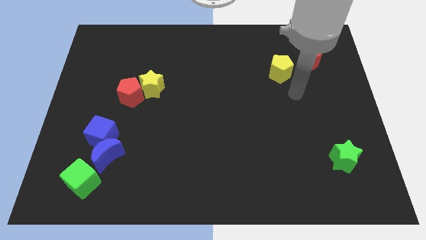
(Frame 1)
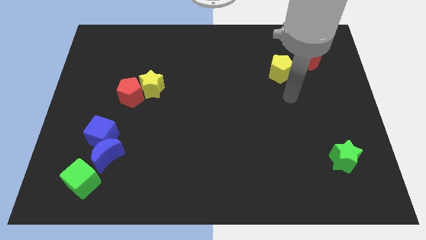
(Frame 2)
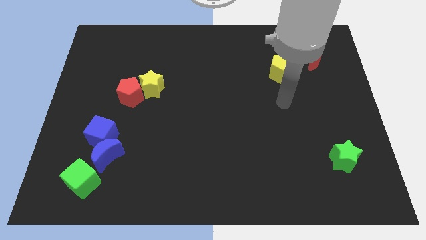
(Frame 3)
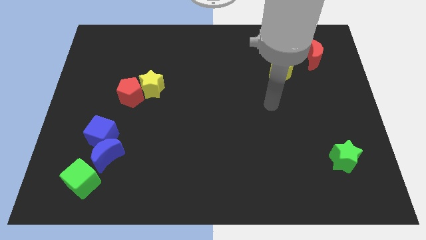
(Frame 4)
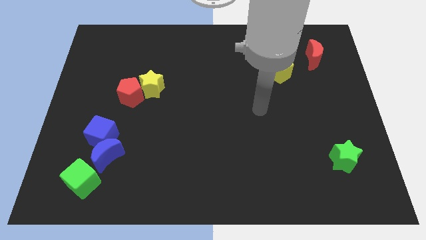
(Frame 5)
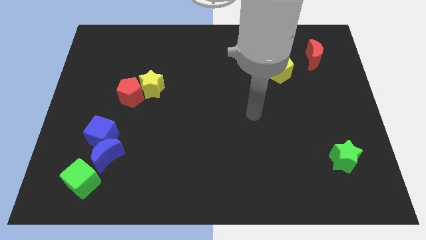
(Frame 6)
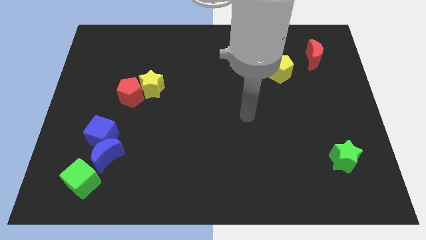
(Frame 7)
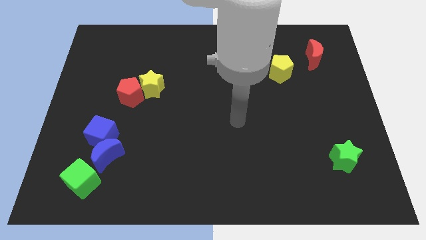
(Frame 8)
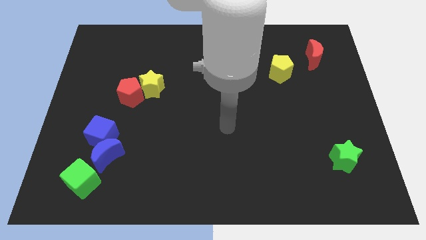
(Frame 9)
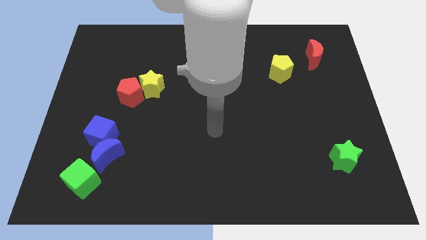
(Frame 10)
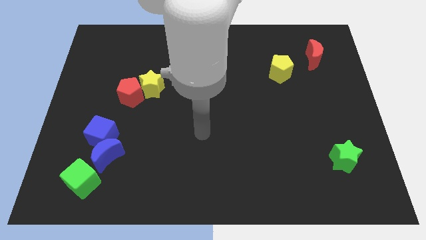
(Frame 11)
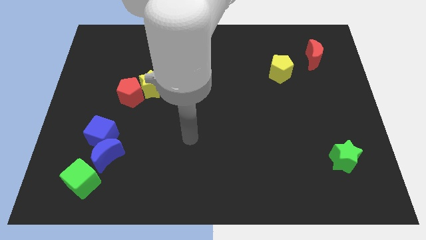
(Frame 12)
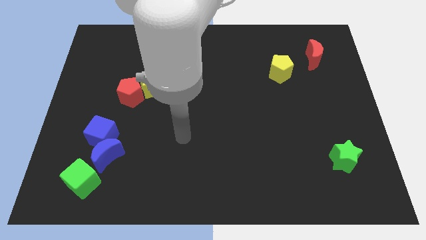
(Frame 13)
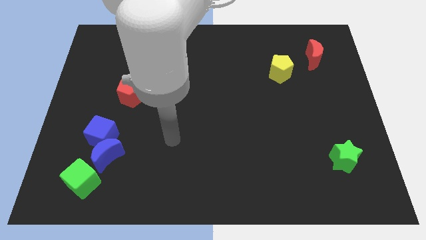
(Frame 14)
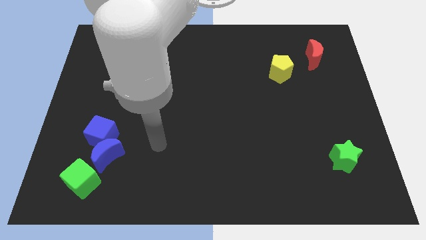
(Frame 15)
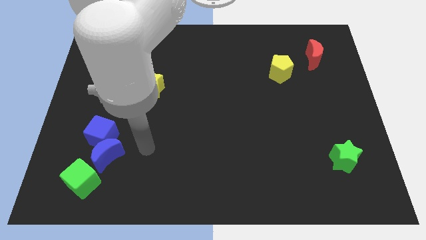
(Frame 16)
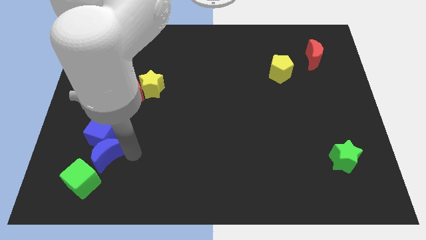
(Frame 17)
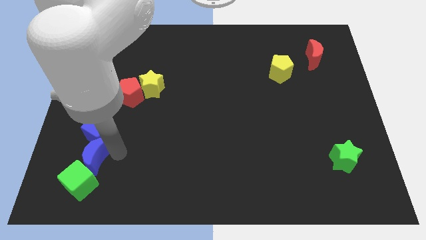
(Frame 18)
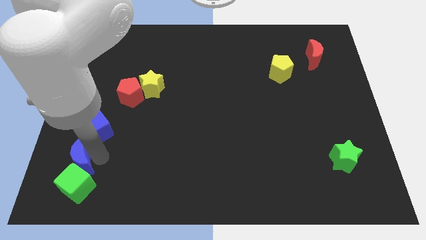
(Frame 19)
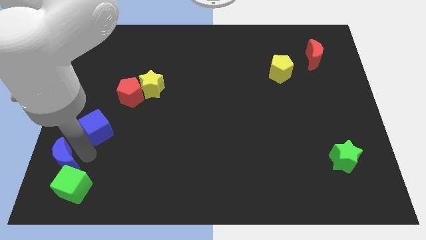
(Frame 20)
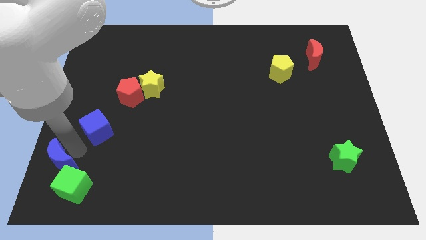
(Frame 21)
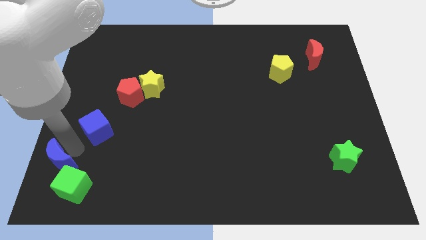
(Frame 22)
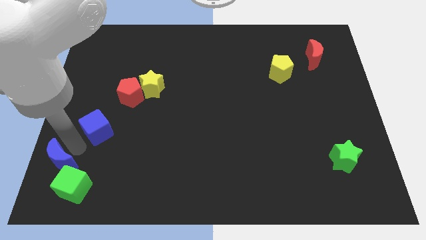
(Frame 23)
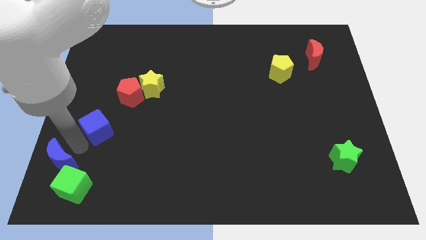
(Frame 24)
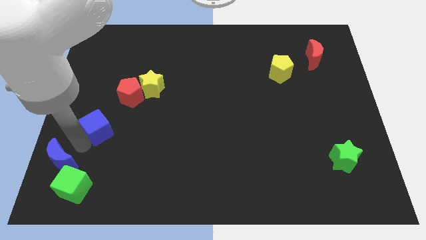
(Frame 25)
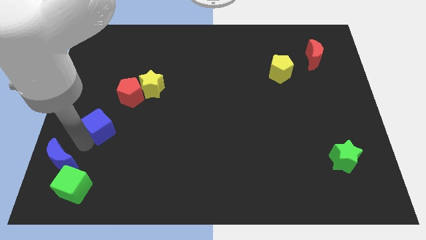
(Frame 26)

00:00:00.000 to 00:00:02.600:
move the blue cube away from the blue moon

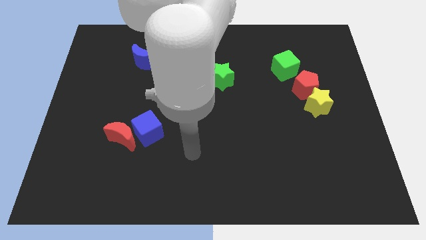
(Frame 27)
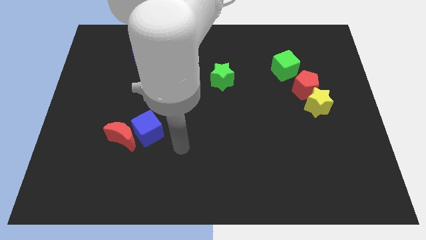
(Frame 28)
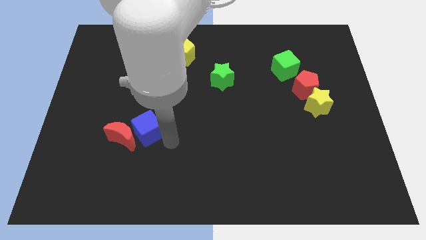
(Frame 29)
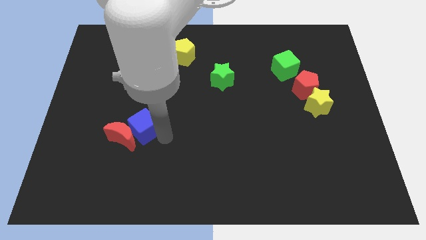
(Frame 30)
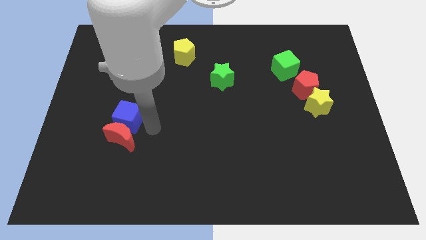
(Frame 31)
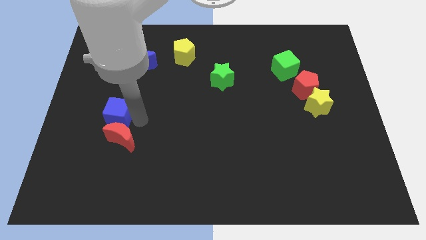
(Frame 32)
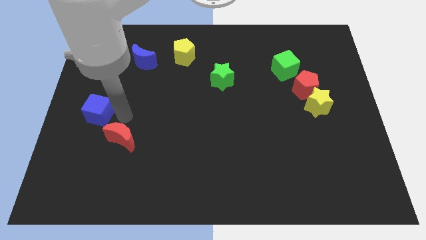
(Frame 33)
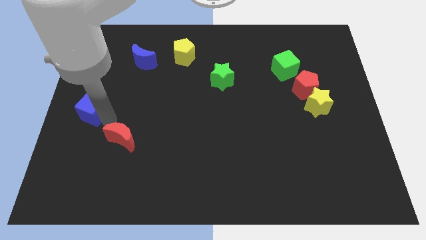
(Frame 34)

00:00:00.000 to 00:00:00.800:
pull the red moon apart from the blue cube

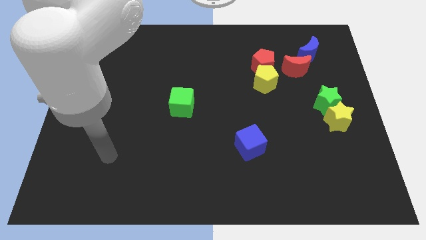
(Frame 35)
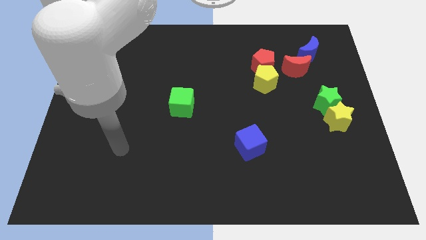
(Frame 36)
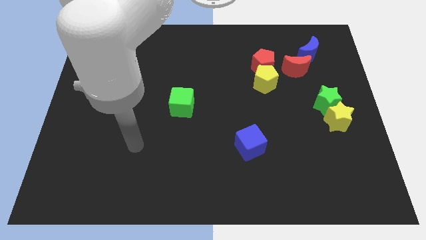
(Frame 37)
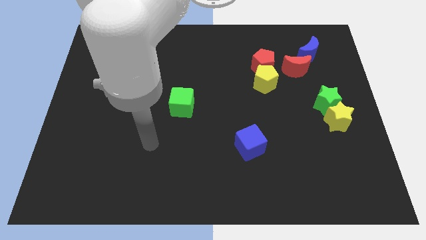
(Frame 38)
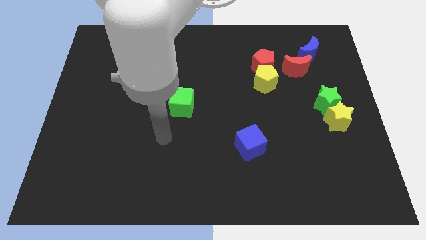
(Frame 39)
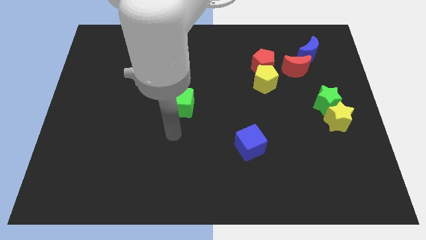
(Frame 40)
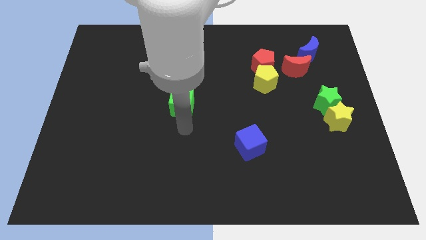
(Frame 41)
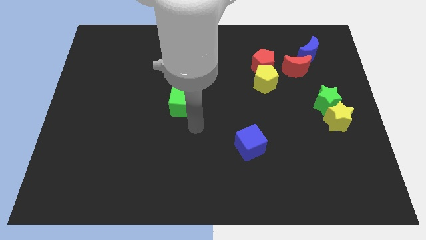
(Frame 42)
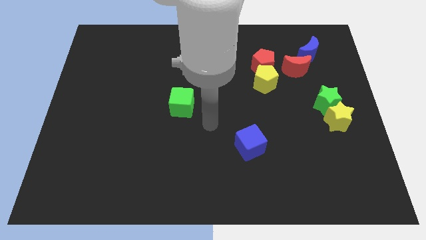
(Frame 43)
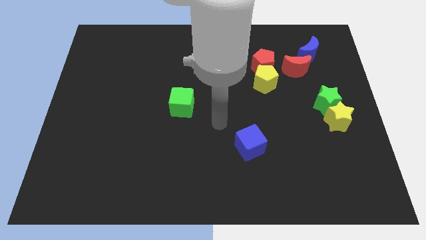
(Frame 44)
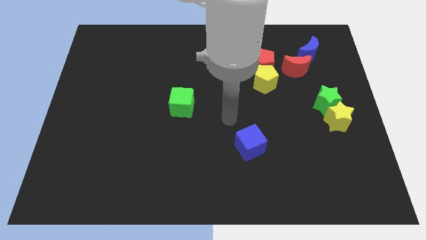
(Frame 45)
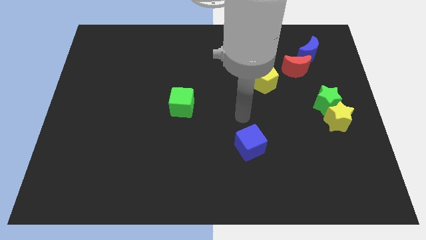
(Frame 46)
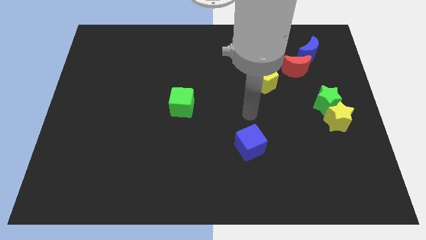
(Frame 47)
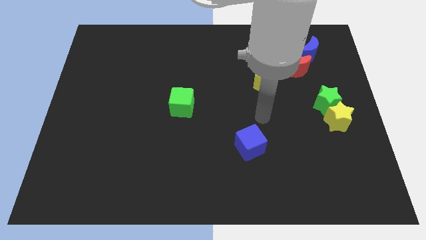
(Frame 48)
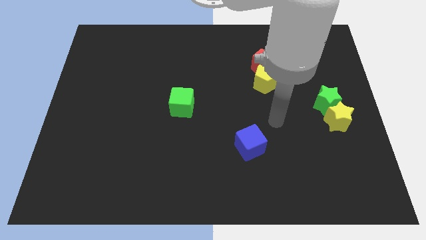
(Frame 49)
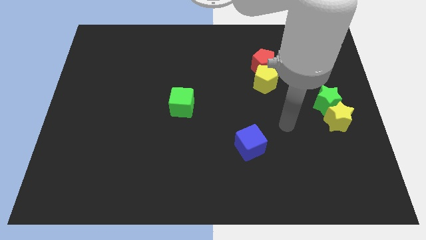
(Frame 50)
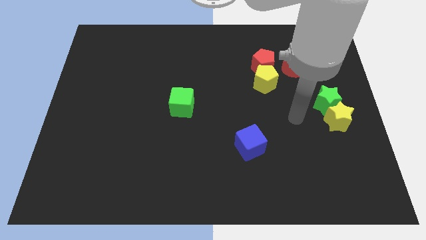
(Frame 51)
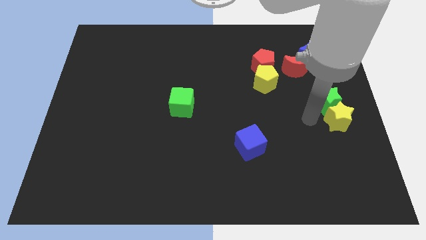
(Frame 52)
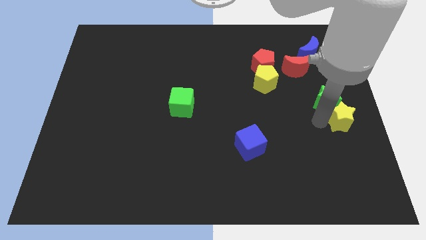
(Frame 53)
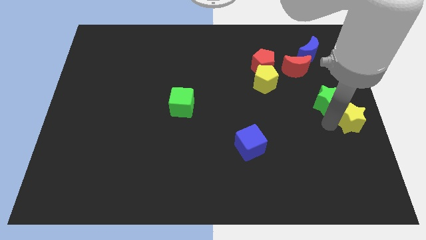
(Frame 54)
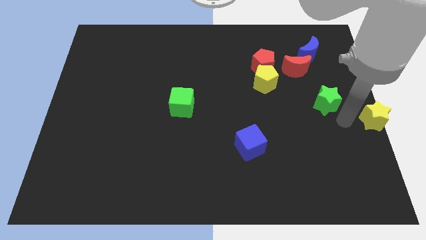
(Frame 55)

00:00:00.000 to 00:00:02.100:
pull the green star apart from the yellow star

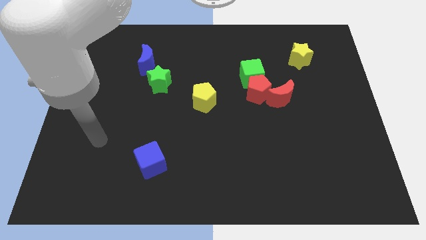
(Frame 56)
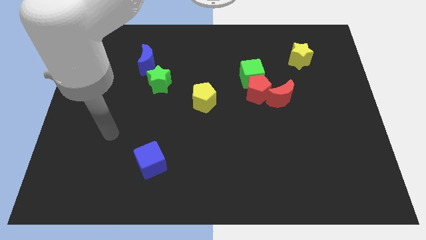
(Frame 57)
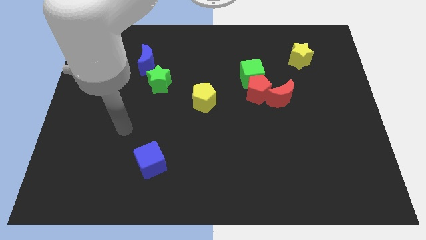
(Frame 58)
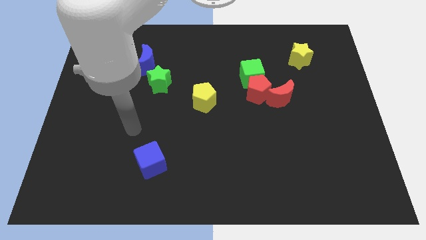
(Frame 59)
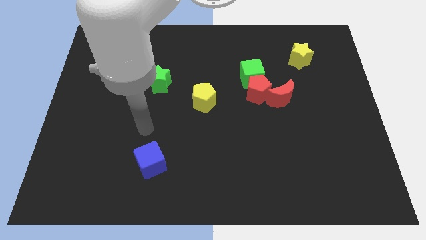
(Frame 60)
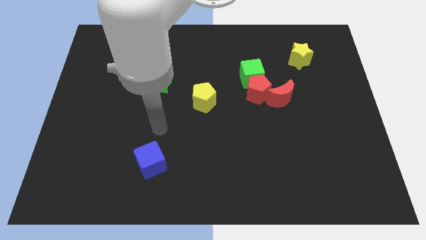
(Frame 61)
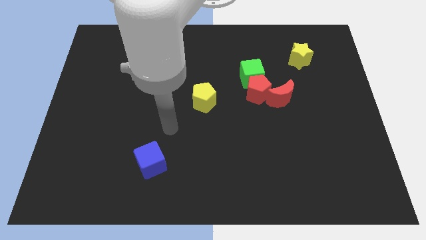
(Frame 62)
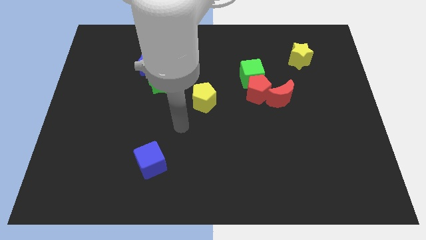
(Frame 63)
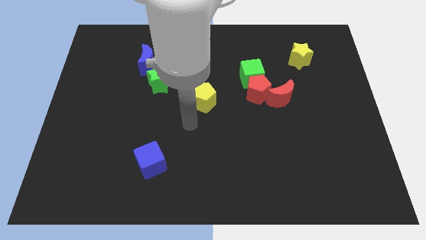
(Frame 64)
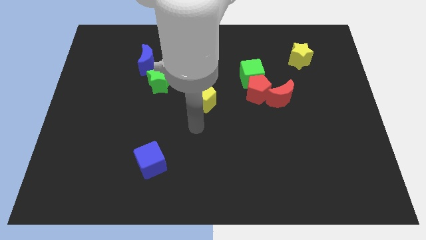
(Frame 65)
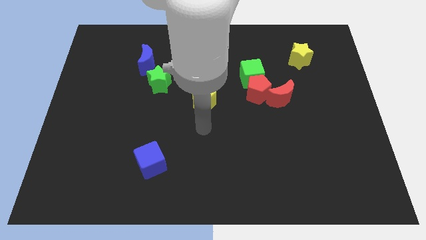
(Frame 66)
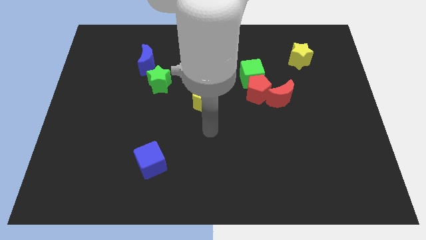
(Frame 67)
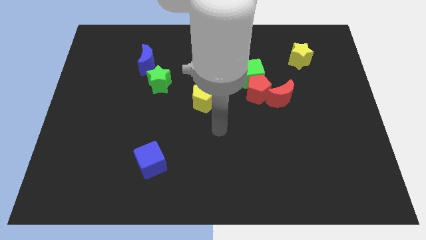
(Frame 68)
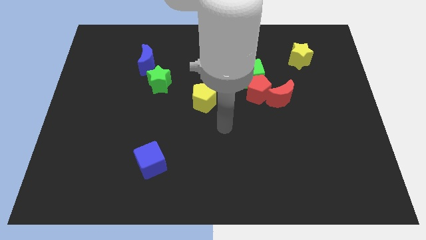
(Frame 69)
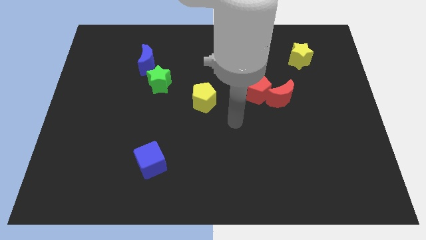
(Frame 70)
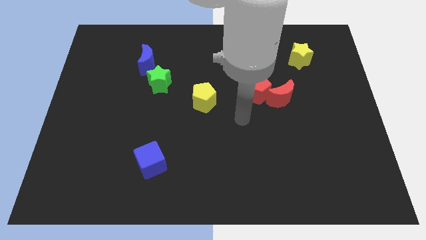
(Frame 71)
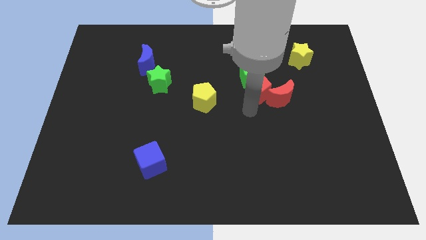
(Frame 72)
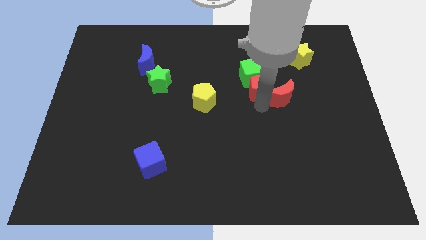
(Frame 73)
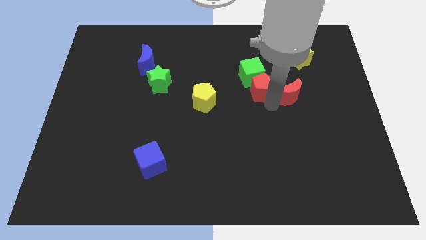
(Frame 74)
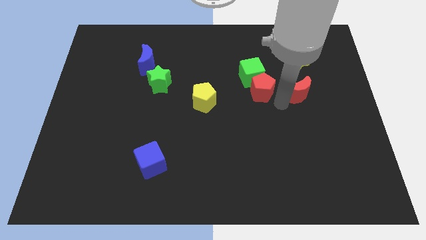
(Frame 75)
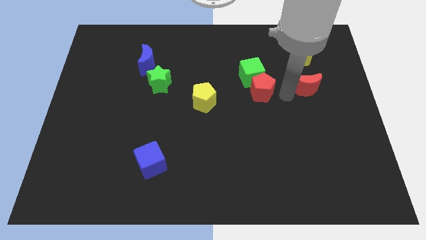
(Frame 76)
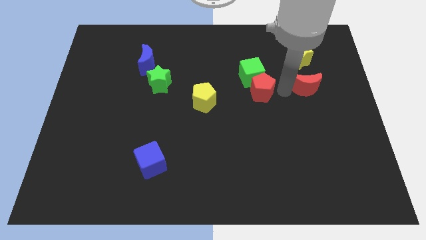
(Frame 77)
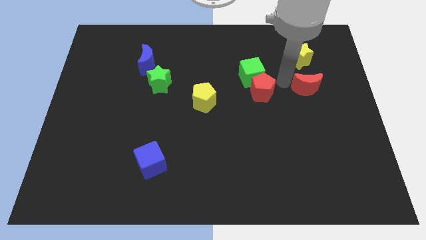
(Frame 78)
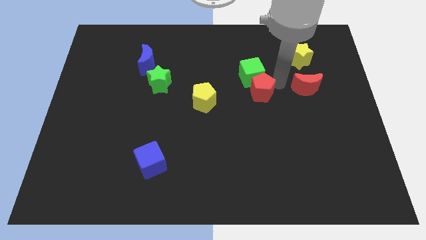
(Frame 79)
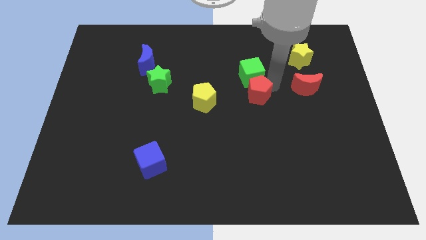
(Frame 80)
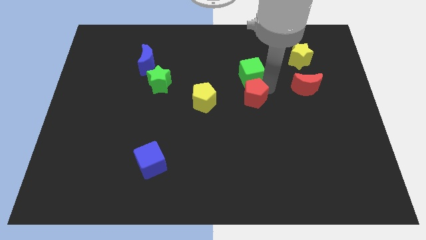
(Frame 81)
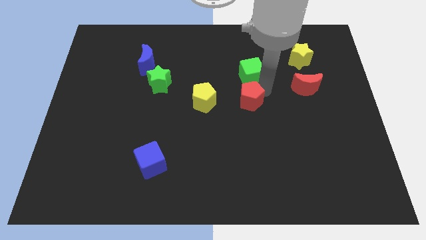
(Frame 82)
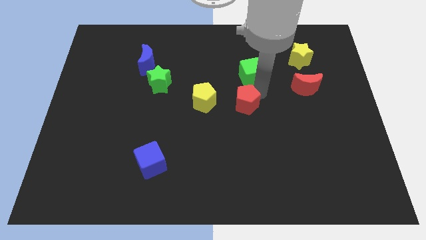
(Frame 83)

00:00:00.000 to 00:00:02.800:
pull the red pentagon apart from the green cube and red moon

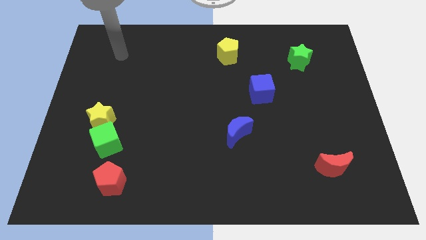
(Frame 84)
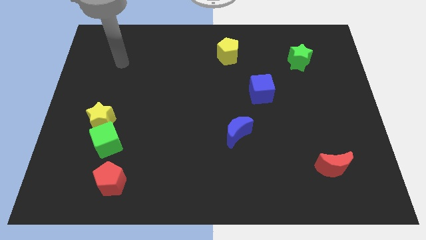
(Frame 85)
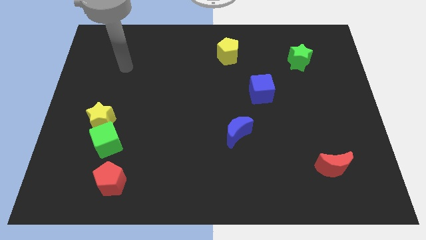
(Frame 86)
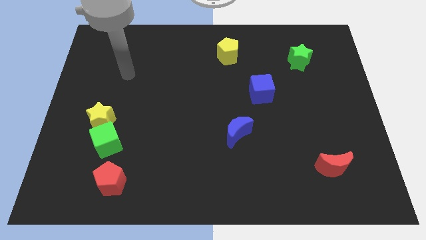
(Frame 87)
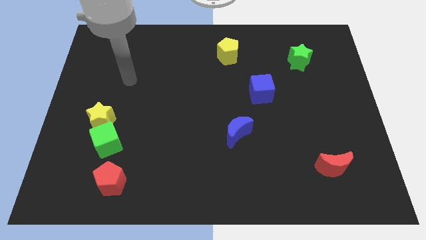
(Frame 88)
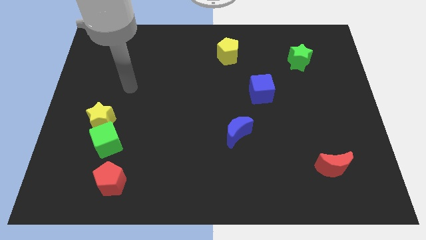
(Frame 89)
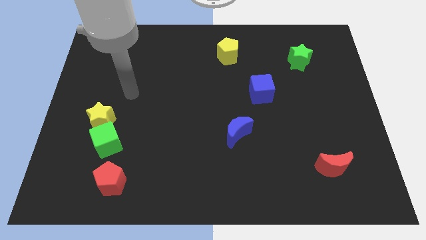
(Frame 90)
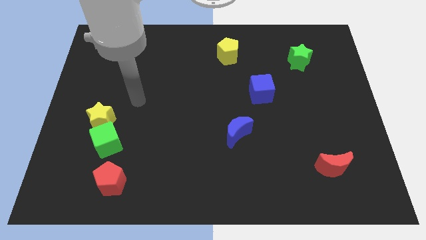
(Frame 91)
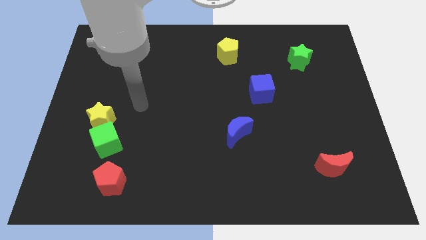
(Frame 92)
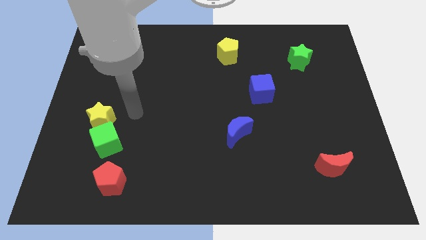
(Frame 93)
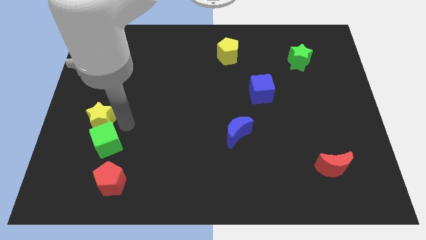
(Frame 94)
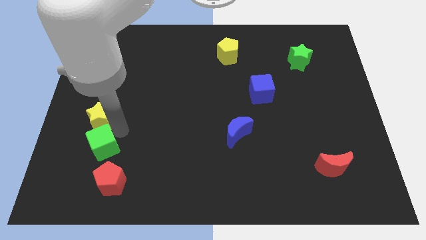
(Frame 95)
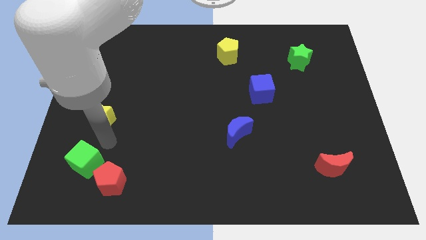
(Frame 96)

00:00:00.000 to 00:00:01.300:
move the yellow star away from the green cube
